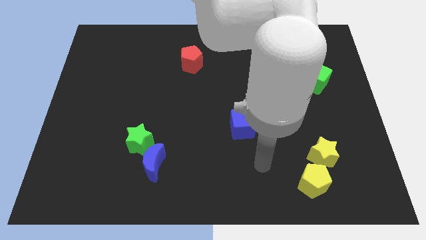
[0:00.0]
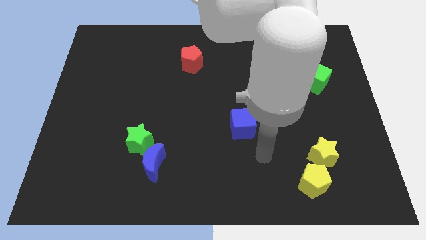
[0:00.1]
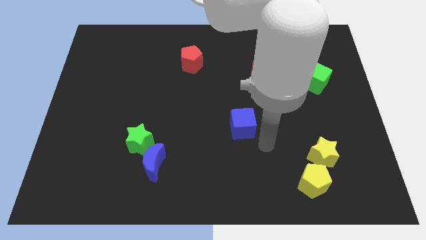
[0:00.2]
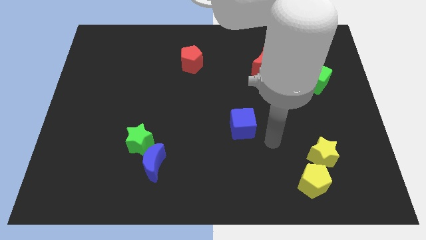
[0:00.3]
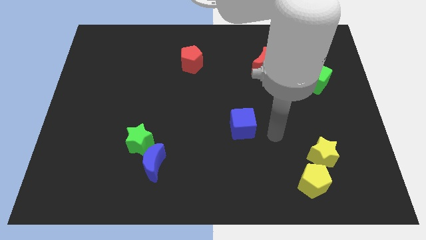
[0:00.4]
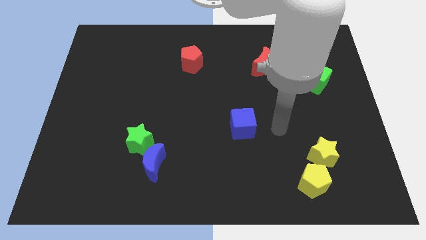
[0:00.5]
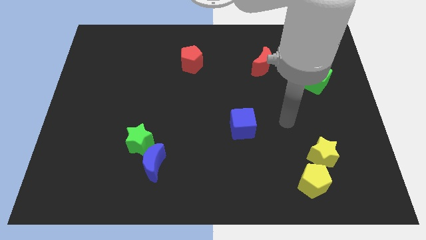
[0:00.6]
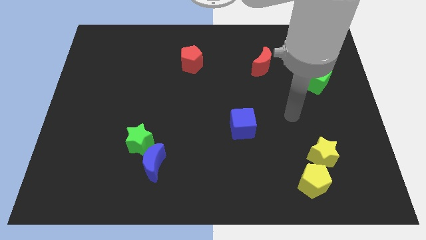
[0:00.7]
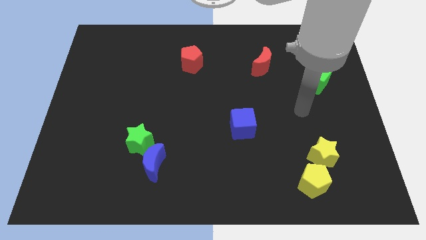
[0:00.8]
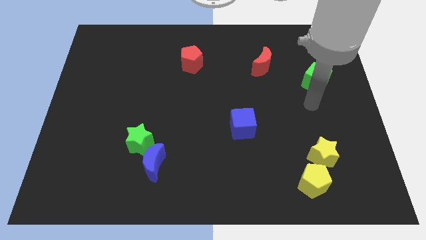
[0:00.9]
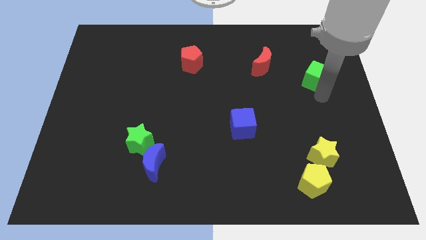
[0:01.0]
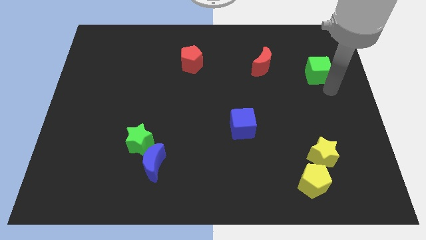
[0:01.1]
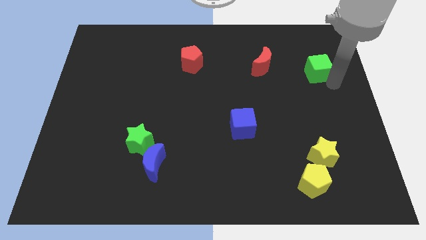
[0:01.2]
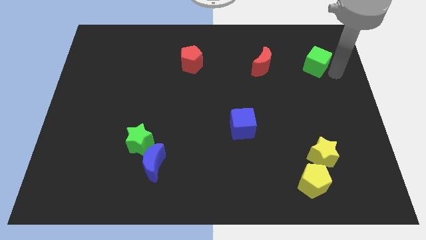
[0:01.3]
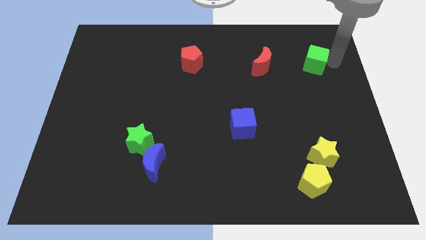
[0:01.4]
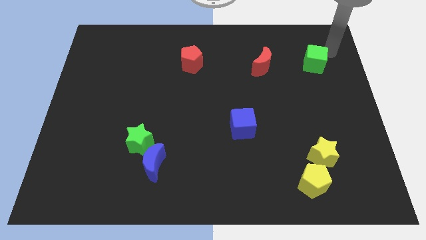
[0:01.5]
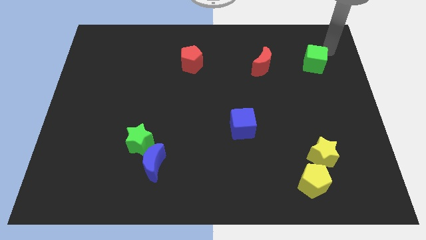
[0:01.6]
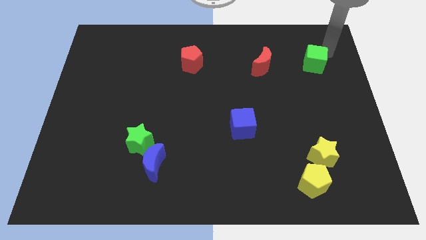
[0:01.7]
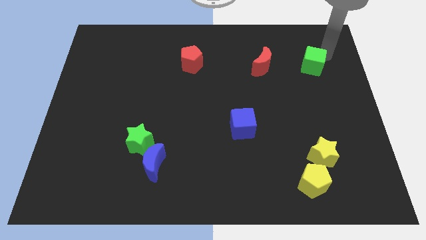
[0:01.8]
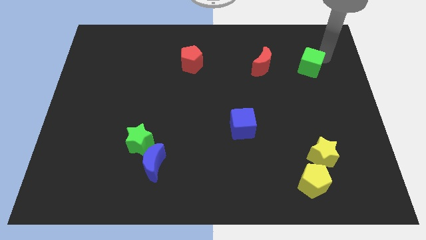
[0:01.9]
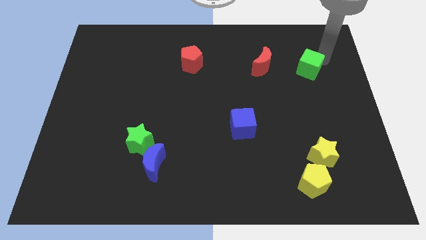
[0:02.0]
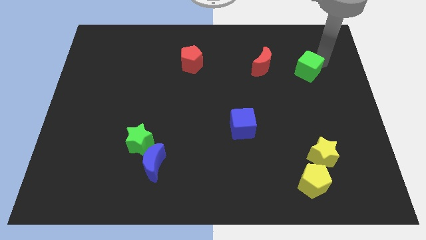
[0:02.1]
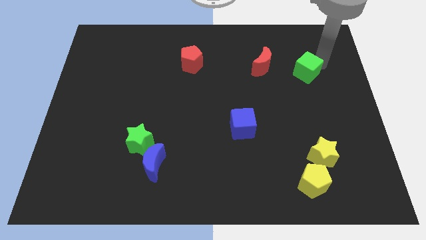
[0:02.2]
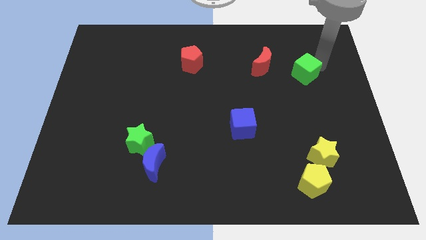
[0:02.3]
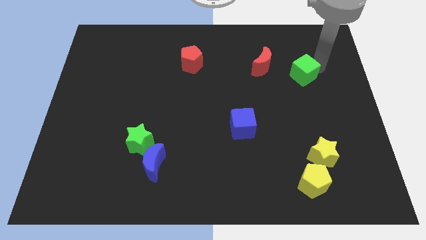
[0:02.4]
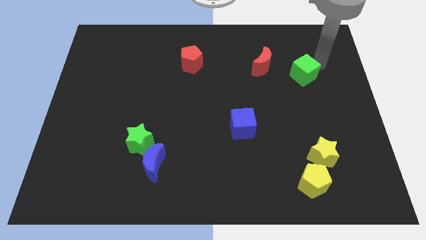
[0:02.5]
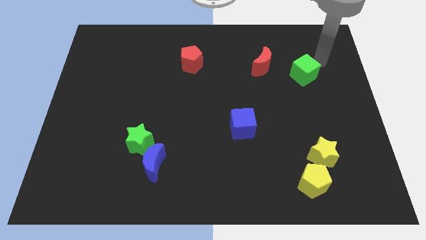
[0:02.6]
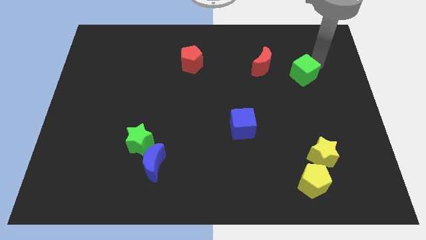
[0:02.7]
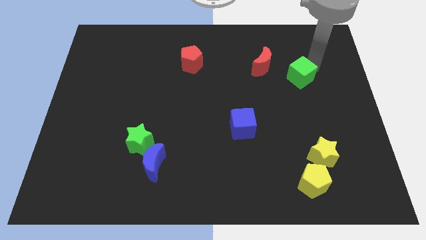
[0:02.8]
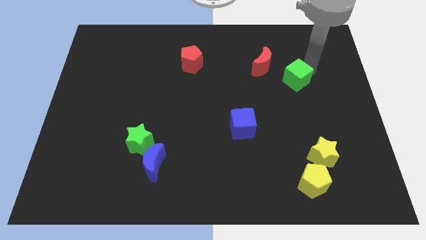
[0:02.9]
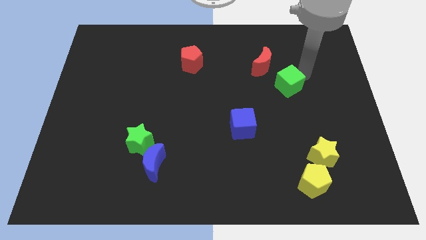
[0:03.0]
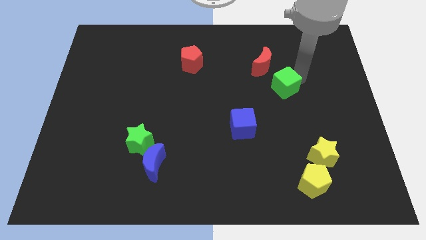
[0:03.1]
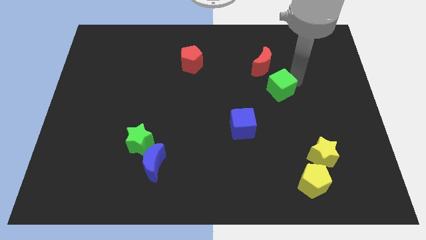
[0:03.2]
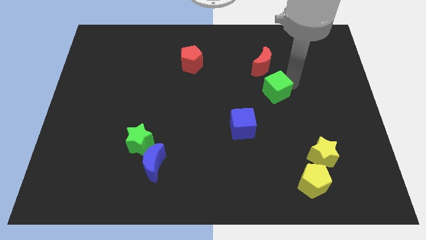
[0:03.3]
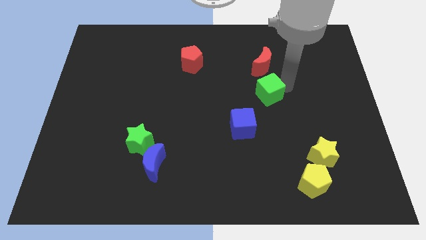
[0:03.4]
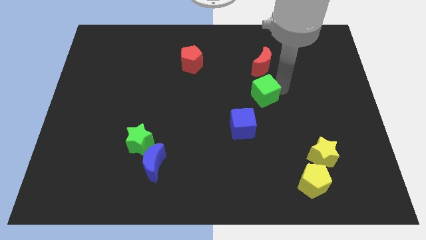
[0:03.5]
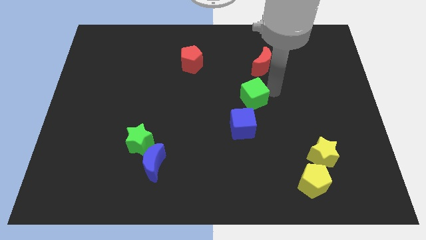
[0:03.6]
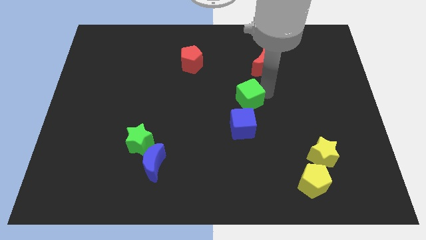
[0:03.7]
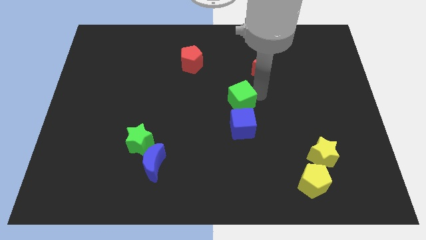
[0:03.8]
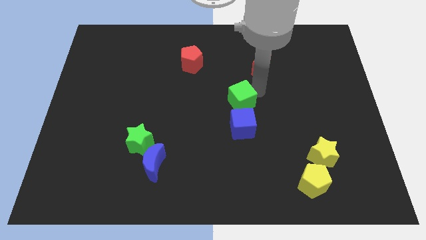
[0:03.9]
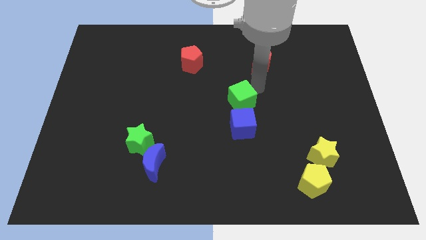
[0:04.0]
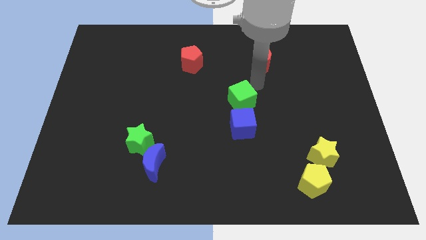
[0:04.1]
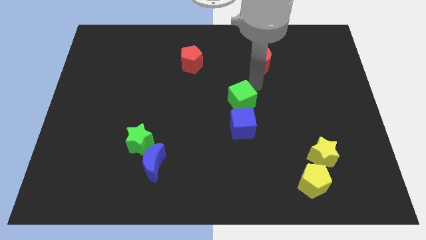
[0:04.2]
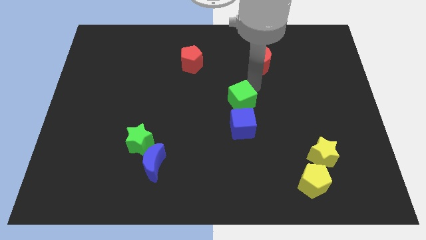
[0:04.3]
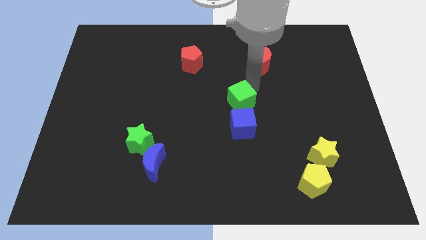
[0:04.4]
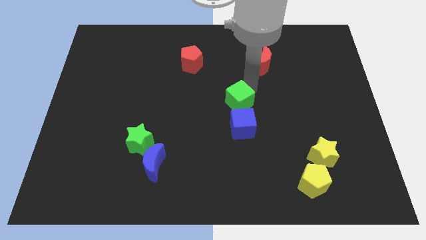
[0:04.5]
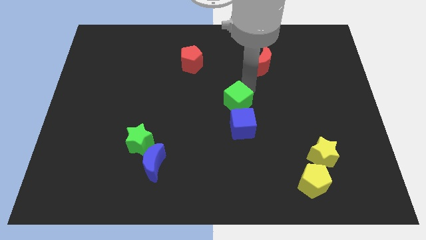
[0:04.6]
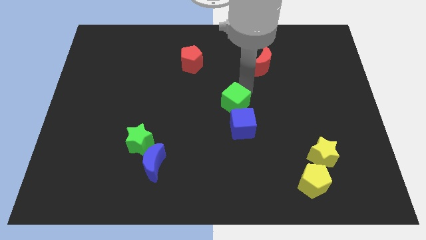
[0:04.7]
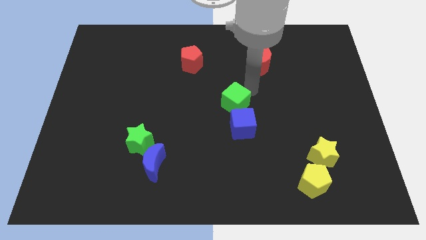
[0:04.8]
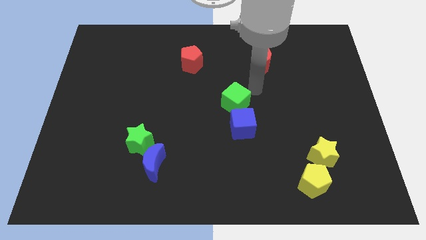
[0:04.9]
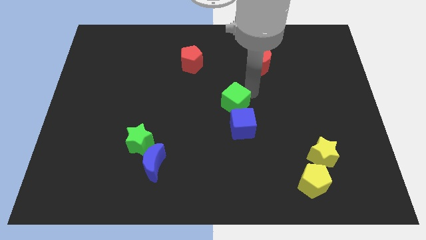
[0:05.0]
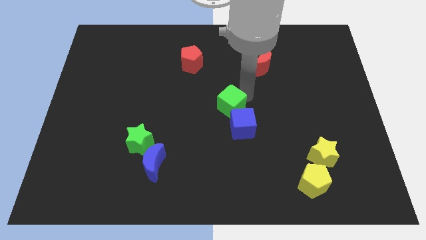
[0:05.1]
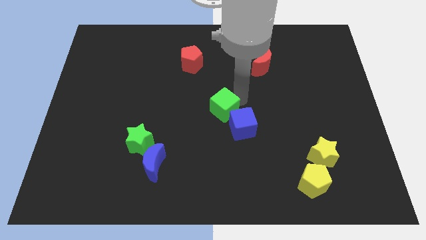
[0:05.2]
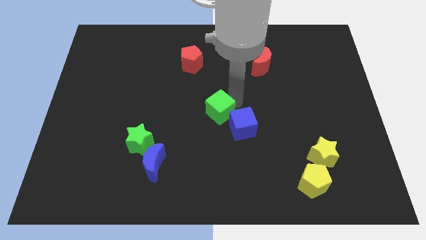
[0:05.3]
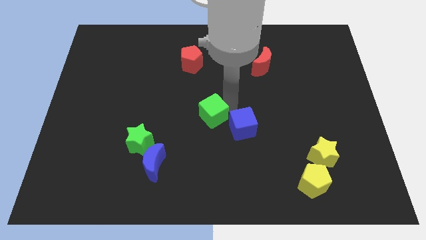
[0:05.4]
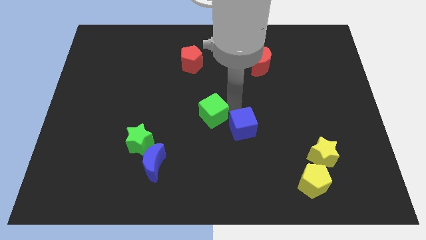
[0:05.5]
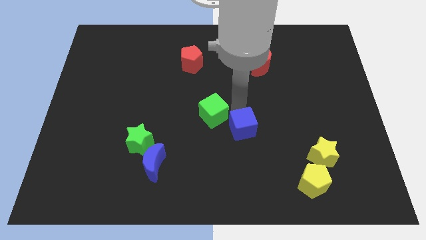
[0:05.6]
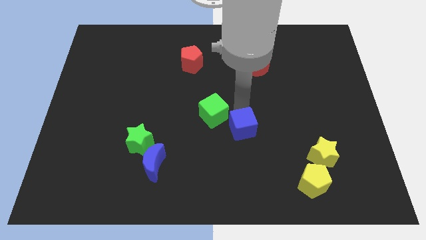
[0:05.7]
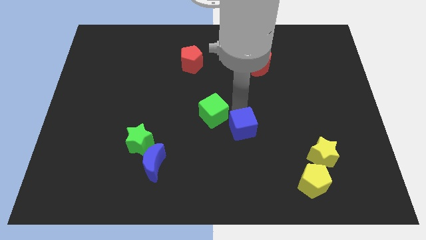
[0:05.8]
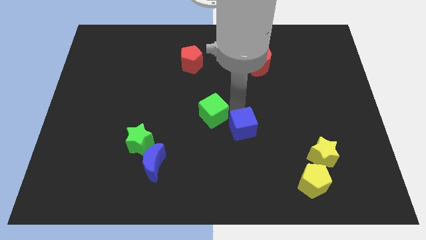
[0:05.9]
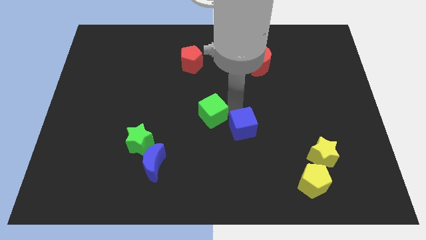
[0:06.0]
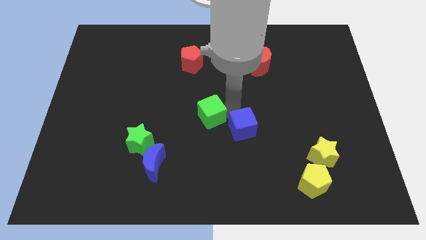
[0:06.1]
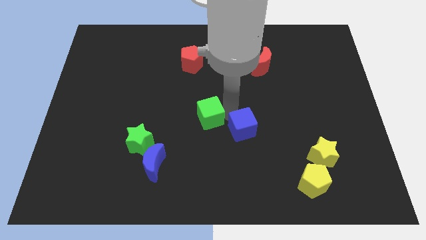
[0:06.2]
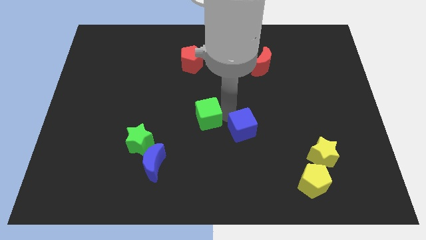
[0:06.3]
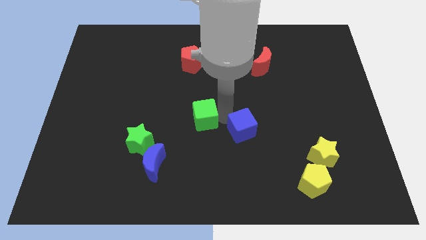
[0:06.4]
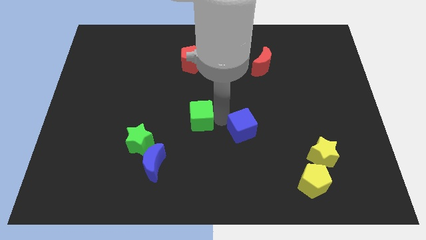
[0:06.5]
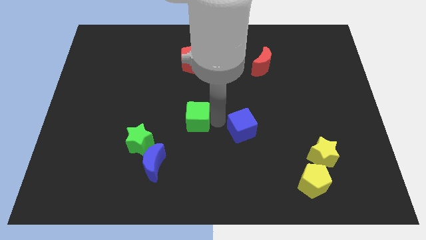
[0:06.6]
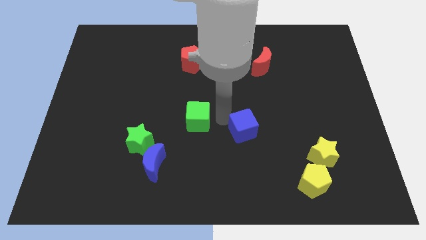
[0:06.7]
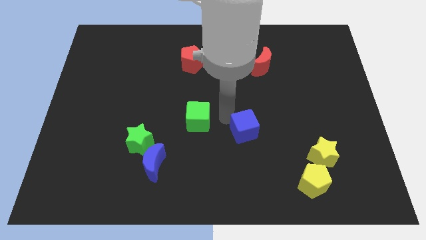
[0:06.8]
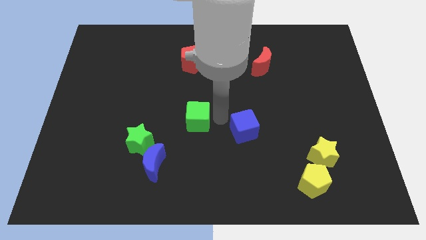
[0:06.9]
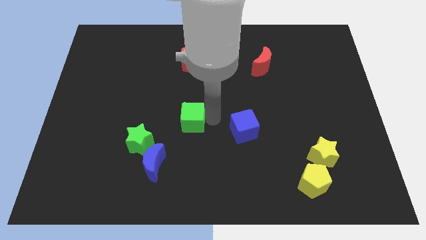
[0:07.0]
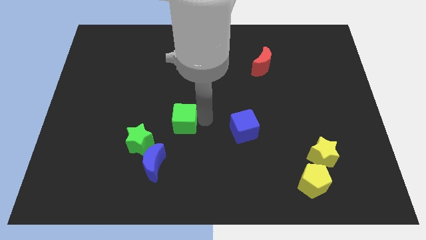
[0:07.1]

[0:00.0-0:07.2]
push the green cube to the top right of the green star
